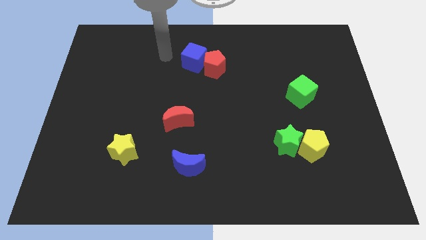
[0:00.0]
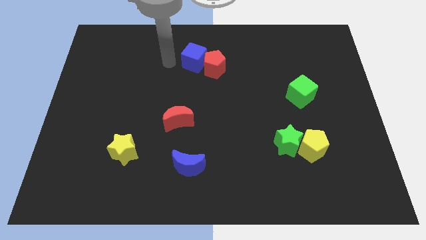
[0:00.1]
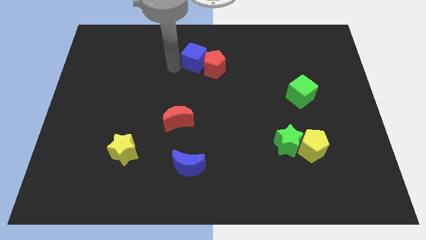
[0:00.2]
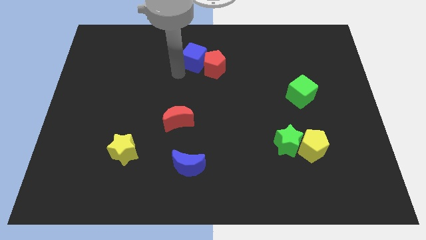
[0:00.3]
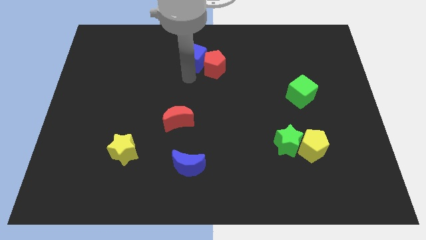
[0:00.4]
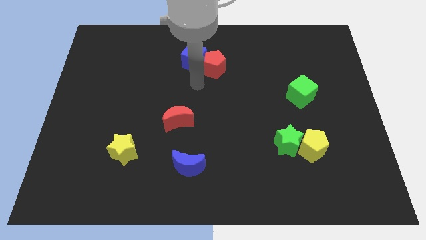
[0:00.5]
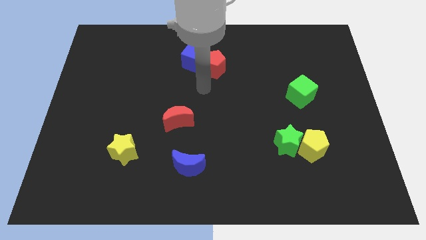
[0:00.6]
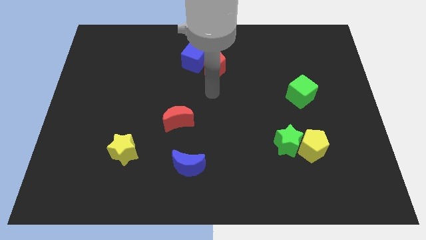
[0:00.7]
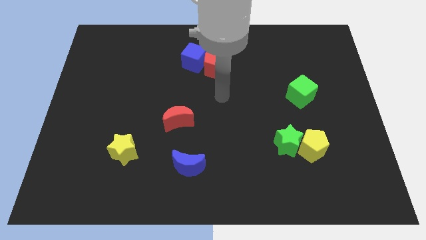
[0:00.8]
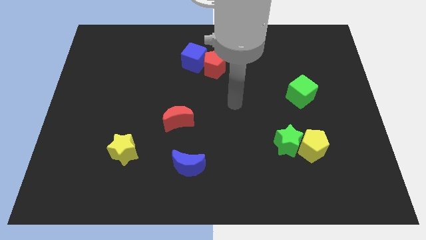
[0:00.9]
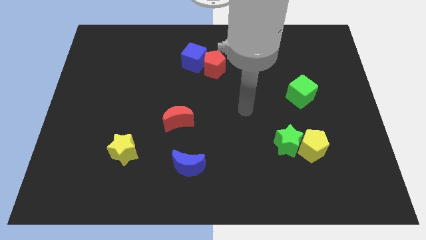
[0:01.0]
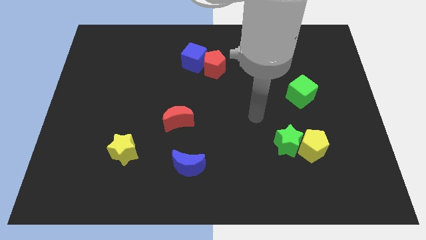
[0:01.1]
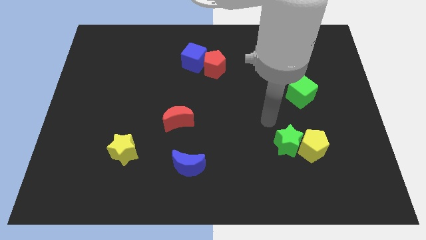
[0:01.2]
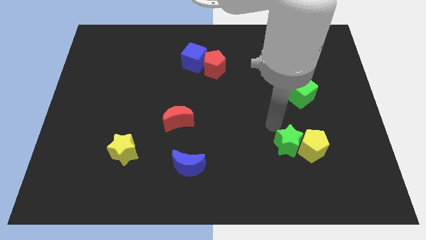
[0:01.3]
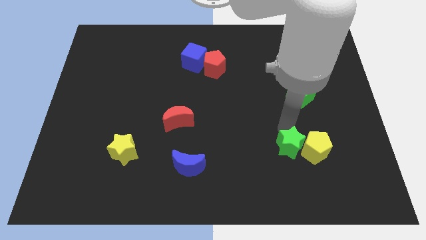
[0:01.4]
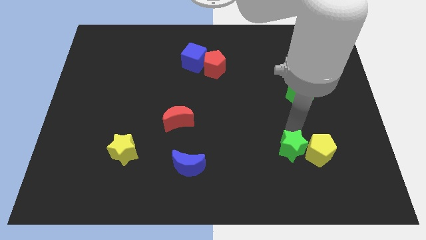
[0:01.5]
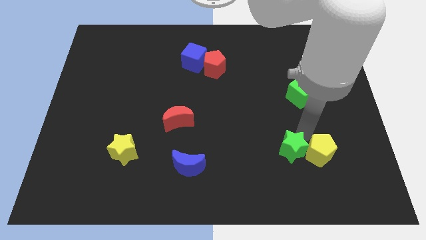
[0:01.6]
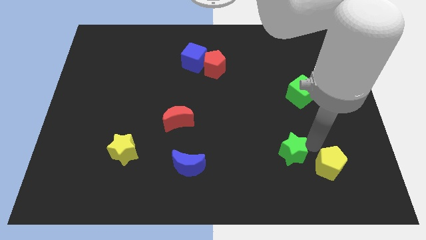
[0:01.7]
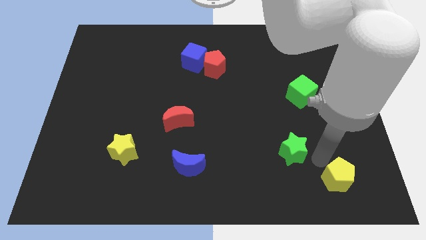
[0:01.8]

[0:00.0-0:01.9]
move the green star away from the yellow pentagon

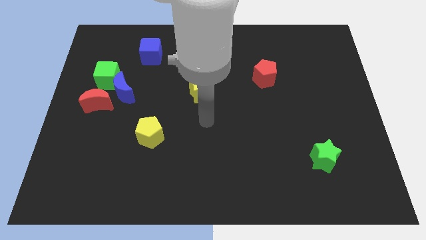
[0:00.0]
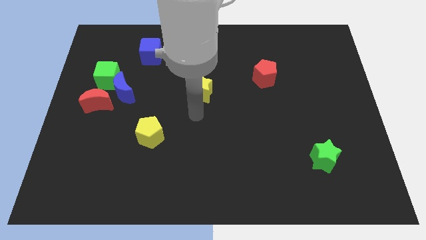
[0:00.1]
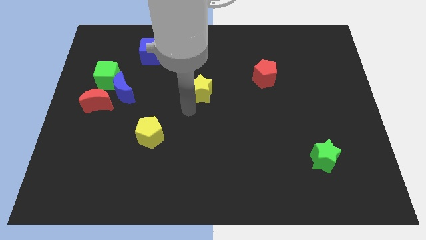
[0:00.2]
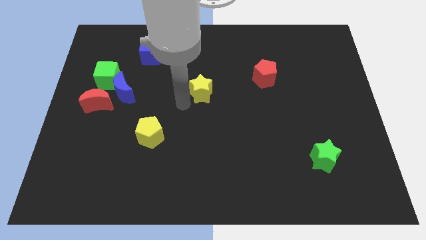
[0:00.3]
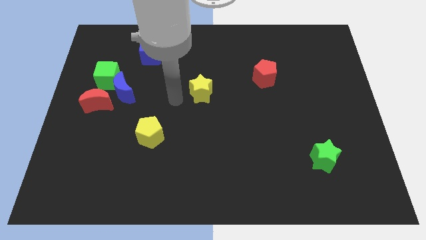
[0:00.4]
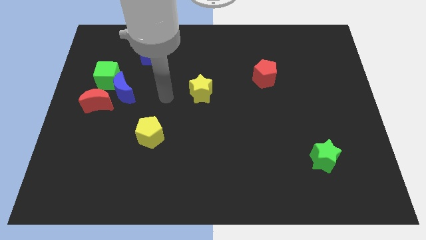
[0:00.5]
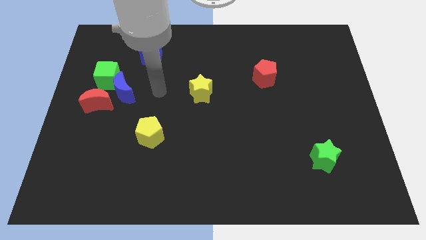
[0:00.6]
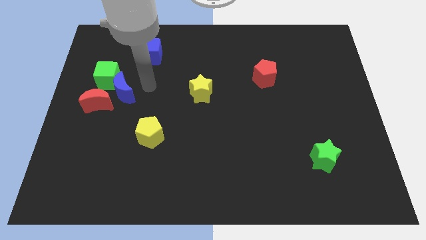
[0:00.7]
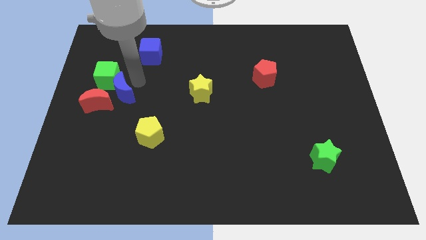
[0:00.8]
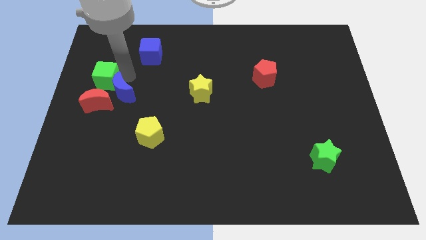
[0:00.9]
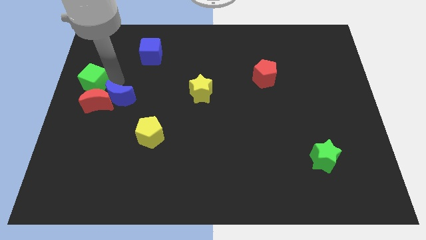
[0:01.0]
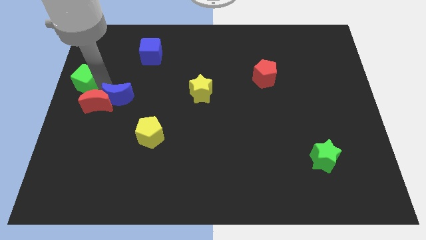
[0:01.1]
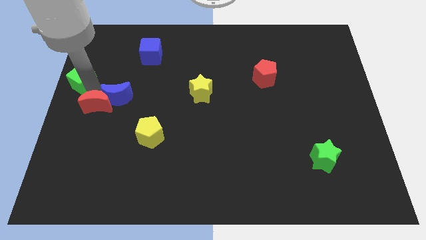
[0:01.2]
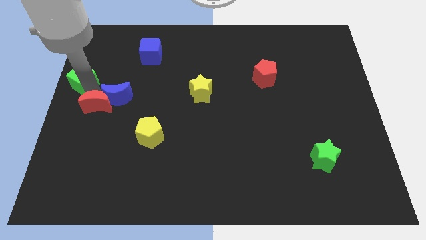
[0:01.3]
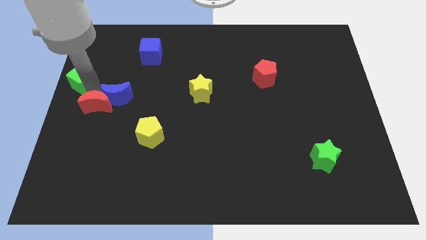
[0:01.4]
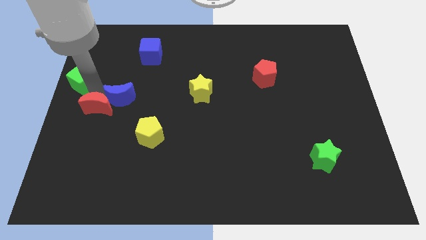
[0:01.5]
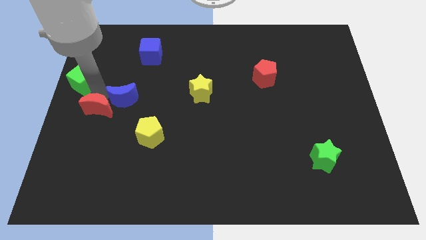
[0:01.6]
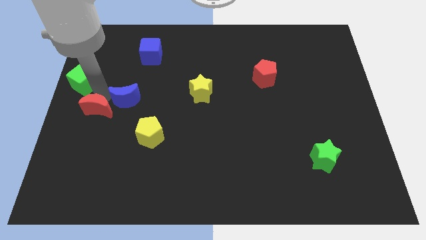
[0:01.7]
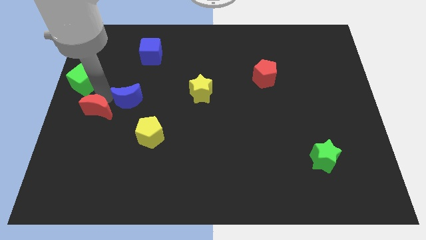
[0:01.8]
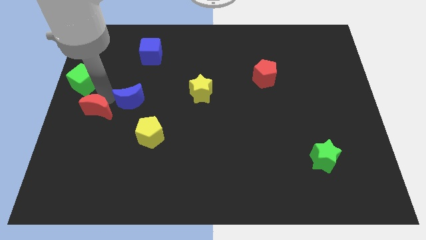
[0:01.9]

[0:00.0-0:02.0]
move the blue moon away from the green cube and red moon

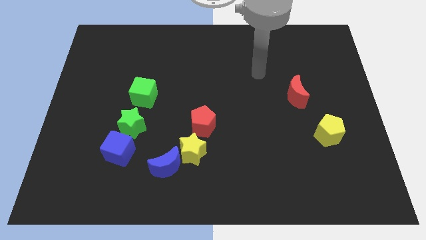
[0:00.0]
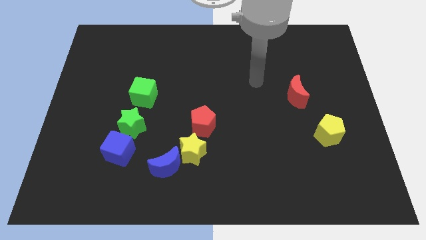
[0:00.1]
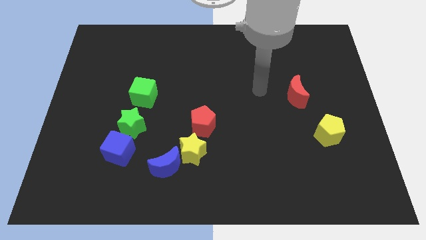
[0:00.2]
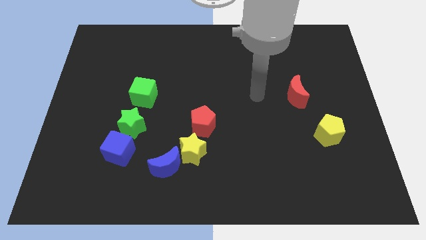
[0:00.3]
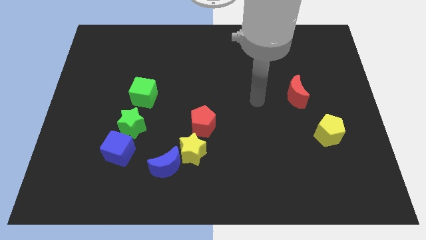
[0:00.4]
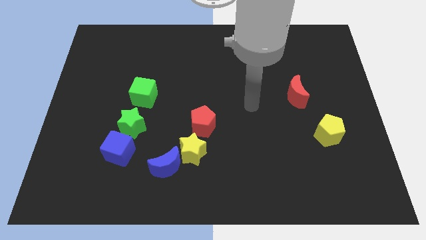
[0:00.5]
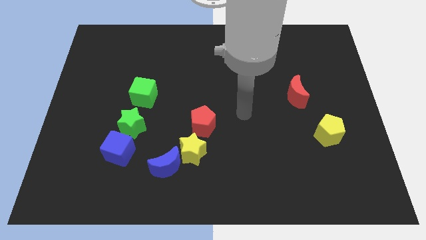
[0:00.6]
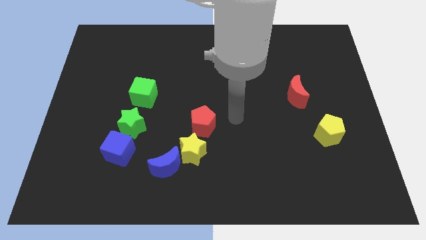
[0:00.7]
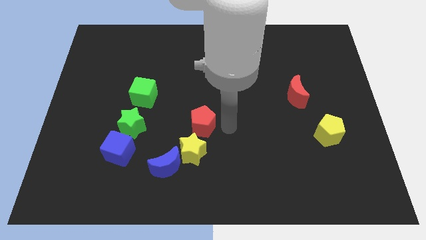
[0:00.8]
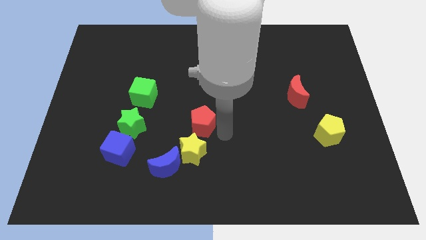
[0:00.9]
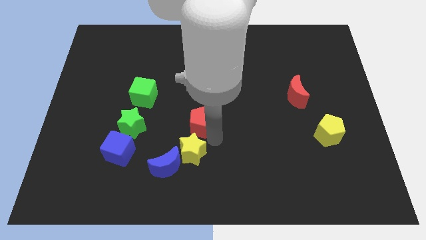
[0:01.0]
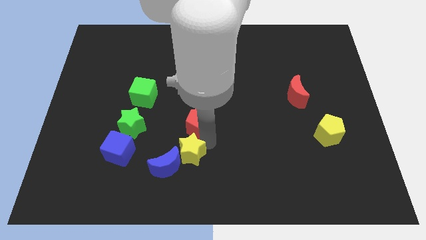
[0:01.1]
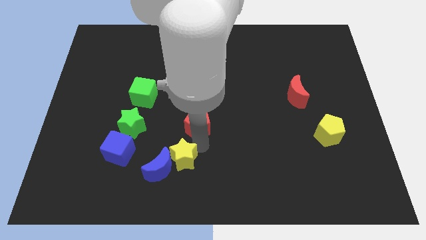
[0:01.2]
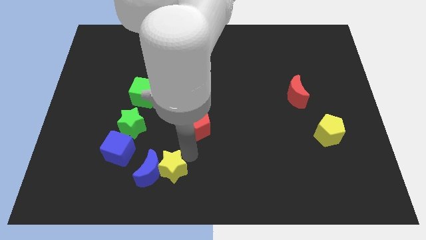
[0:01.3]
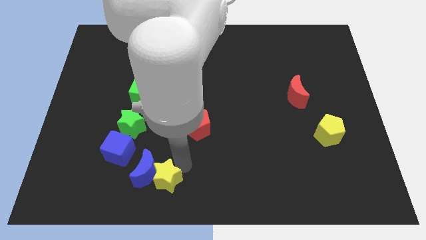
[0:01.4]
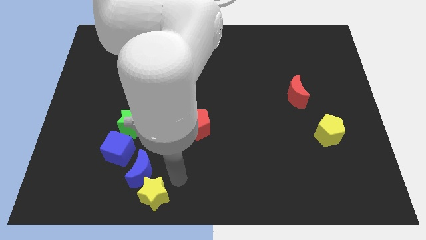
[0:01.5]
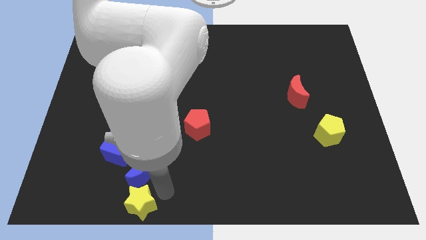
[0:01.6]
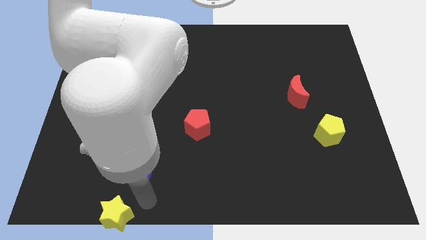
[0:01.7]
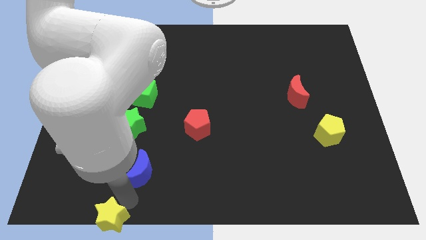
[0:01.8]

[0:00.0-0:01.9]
separate the blue moon from the yellow star

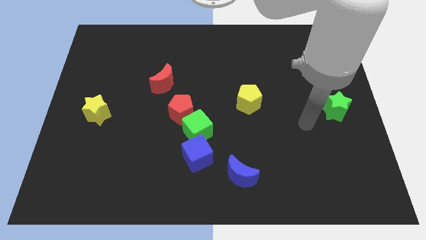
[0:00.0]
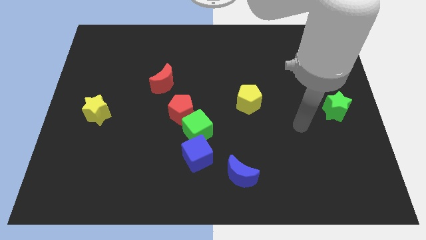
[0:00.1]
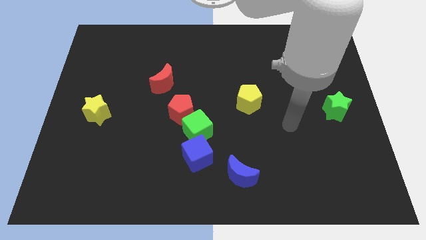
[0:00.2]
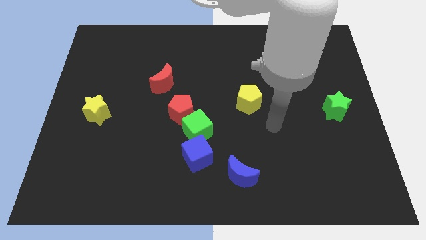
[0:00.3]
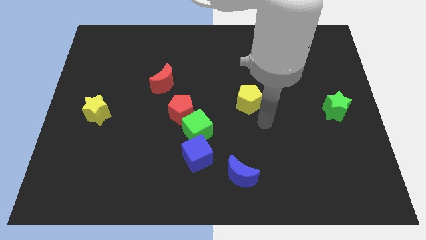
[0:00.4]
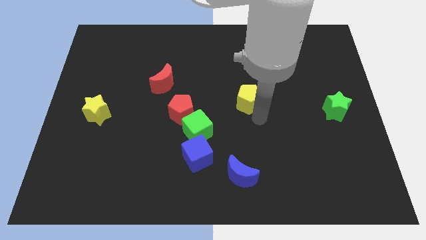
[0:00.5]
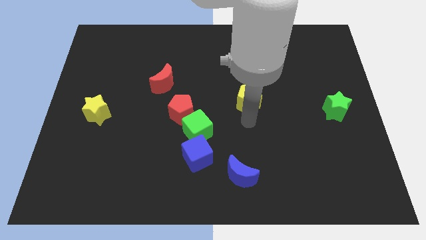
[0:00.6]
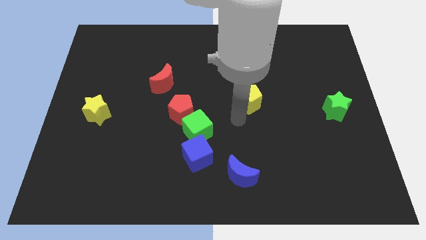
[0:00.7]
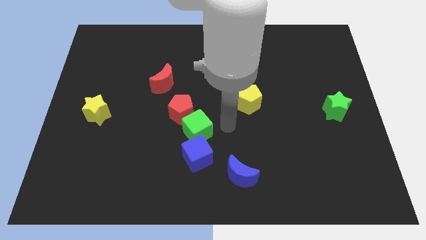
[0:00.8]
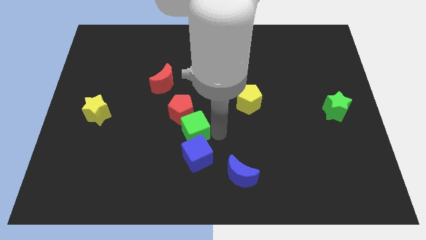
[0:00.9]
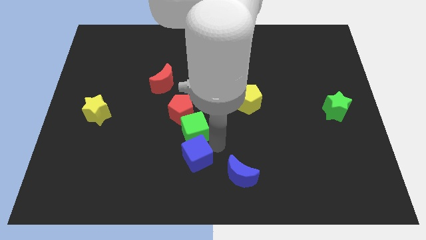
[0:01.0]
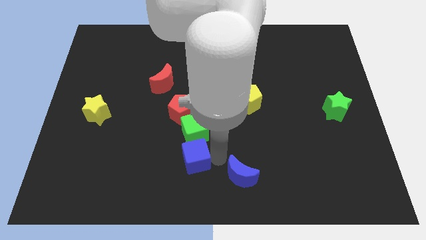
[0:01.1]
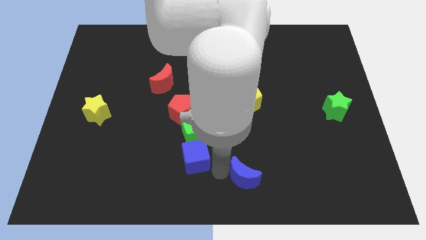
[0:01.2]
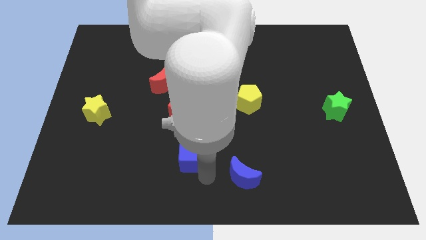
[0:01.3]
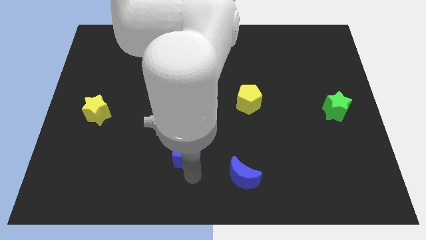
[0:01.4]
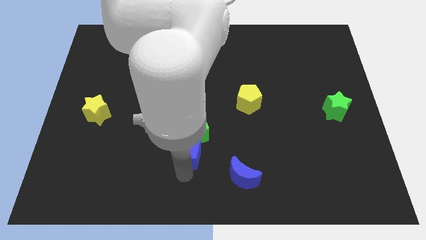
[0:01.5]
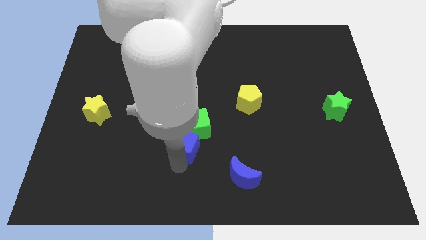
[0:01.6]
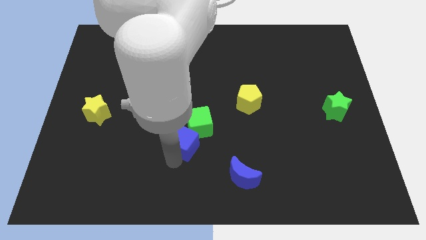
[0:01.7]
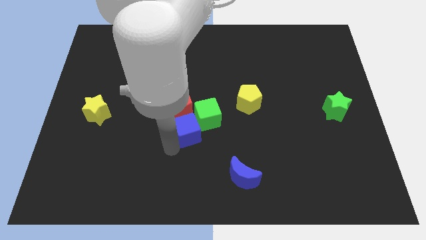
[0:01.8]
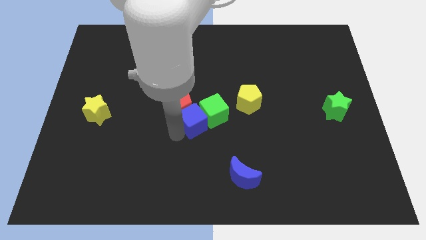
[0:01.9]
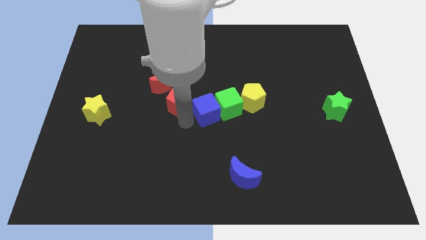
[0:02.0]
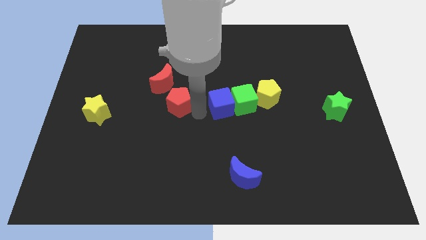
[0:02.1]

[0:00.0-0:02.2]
move the green cube away from the red pentagon and blue cube

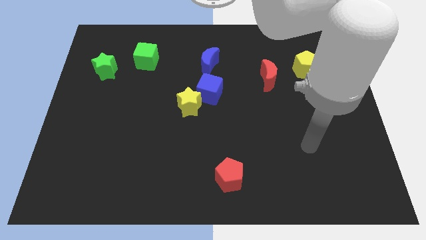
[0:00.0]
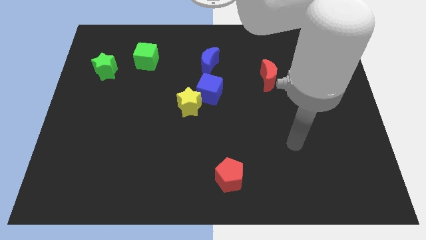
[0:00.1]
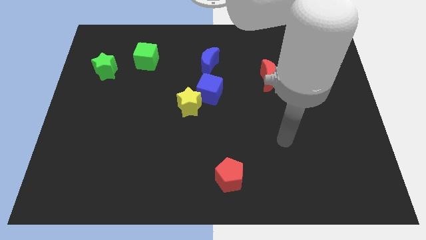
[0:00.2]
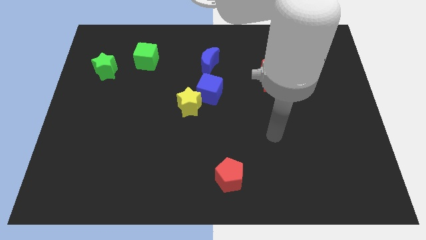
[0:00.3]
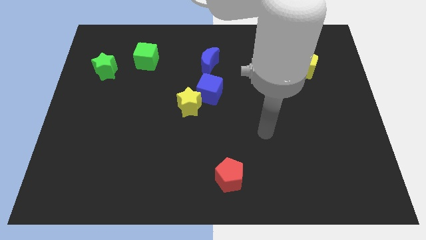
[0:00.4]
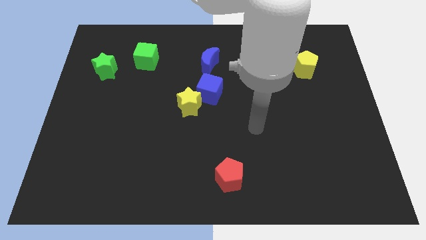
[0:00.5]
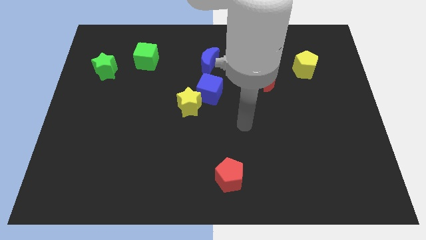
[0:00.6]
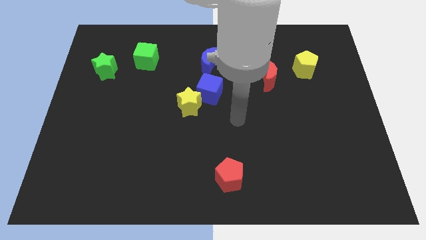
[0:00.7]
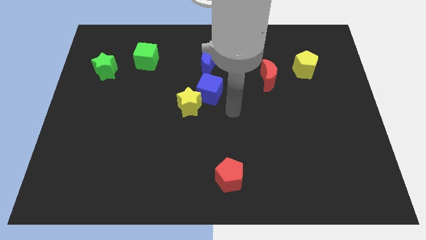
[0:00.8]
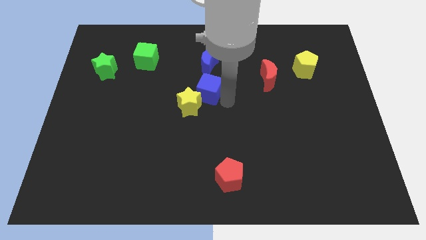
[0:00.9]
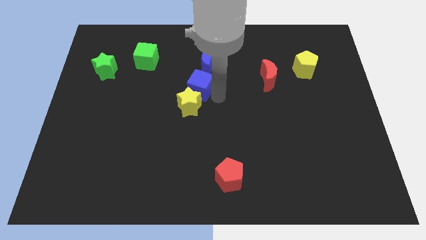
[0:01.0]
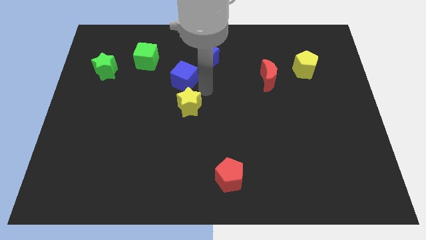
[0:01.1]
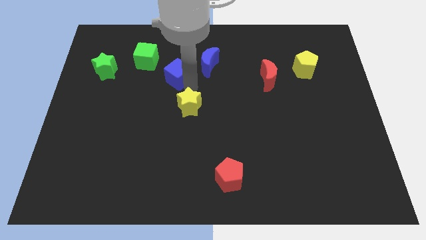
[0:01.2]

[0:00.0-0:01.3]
move the yellow star away from the blue cube

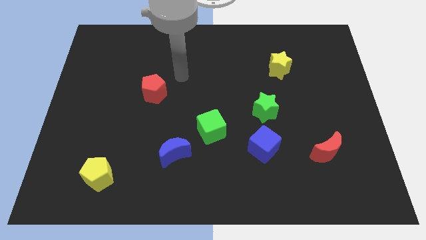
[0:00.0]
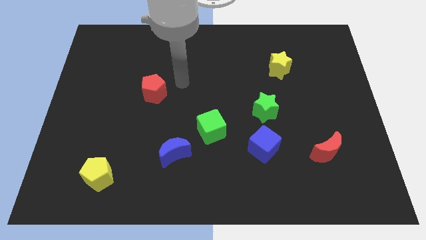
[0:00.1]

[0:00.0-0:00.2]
move the blue moon away from the green cube
